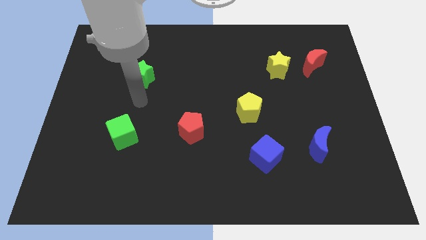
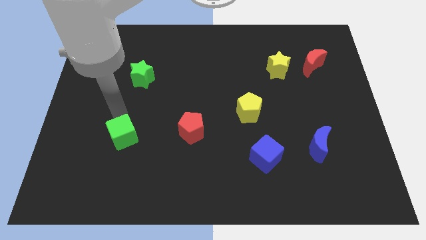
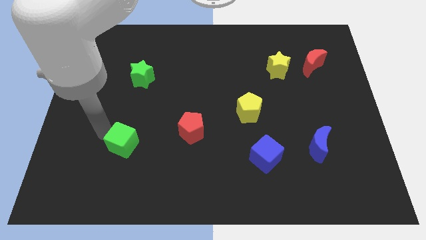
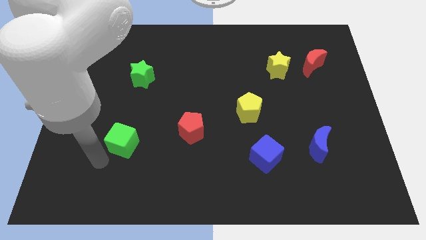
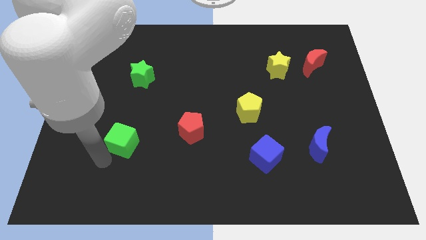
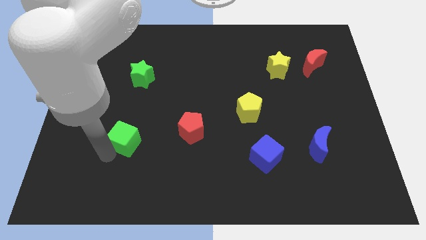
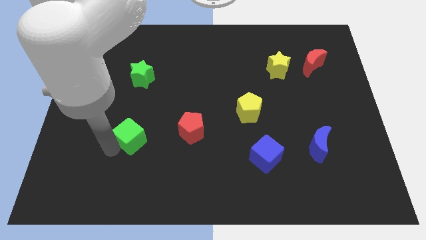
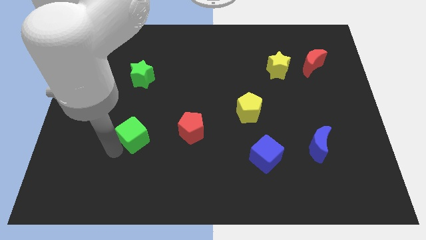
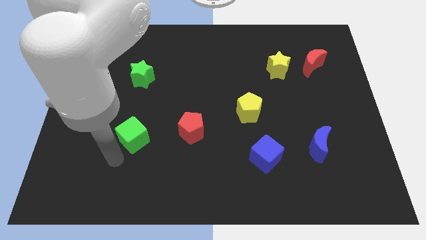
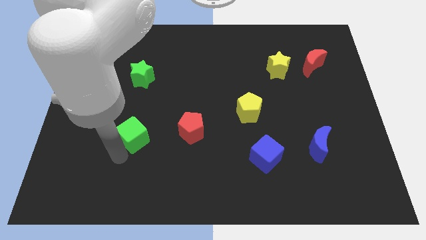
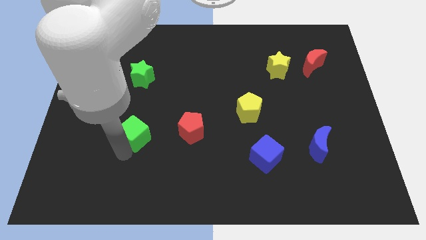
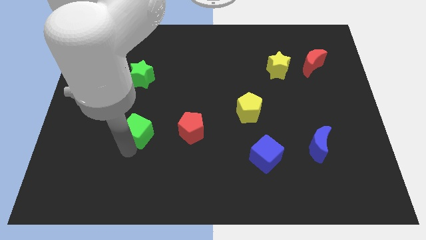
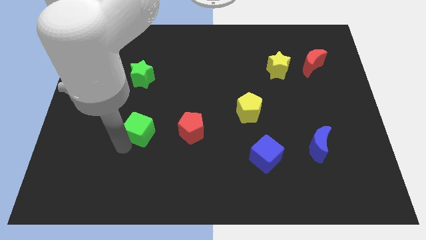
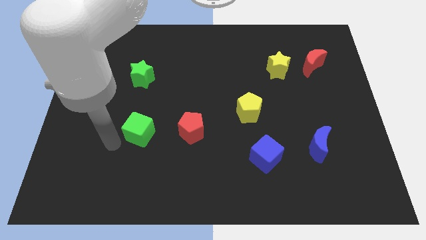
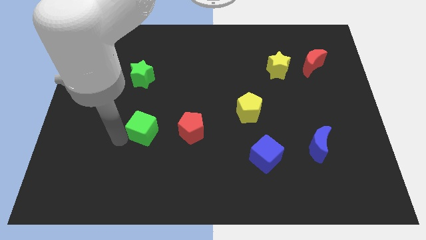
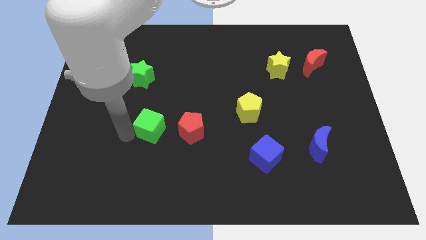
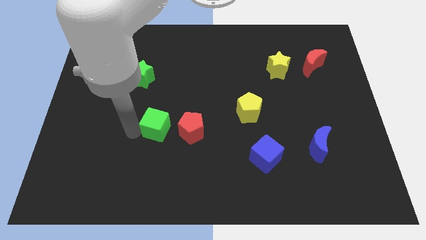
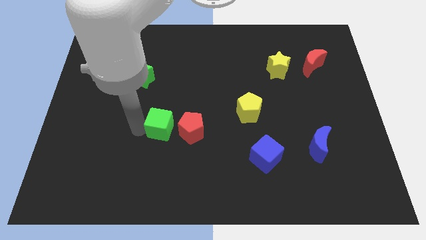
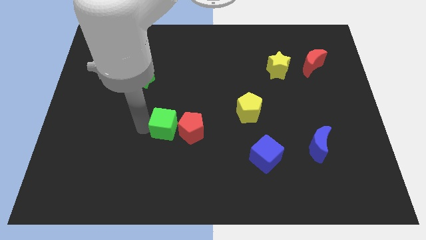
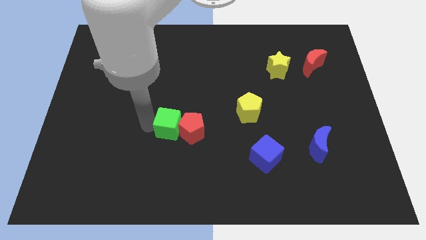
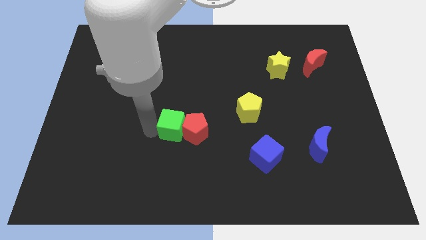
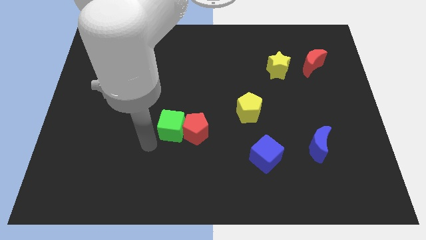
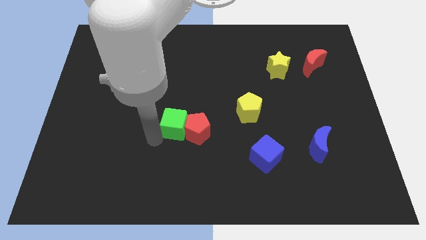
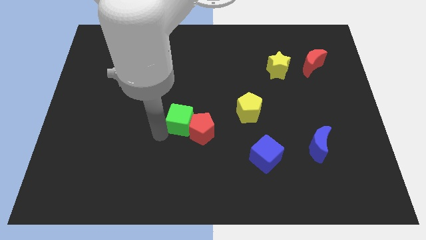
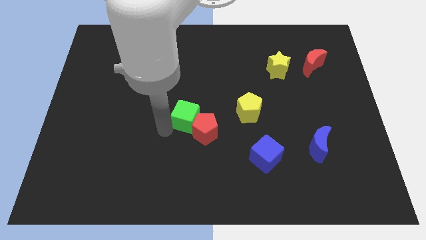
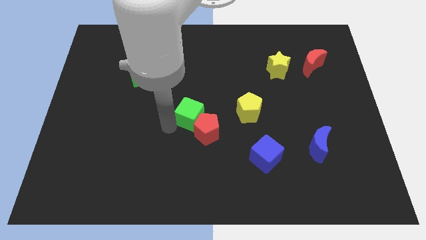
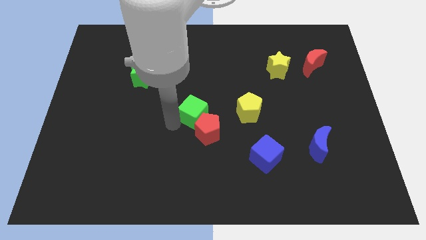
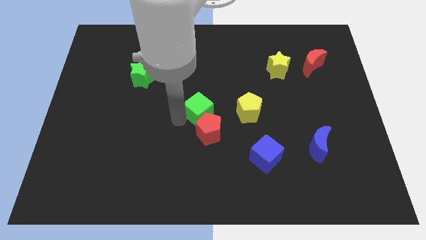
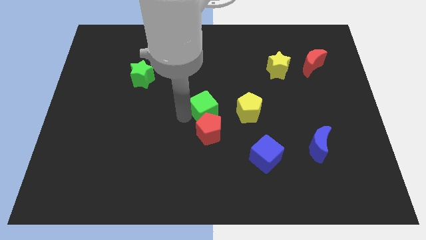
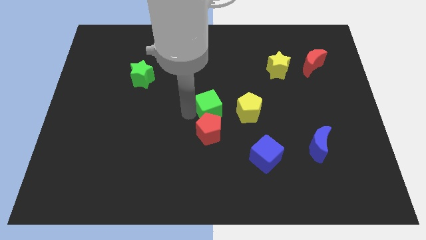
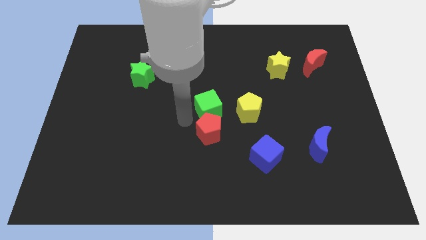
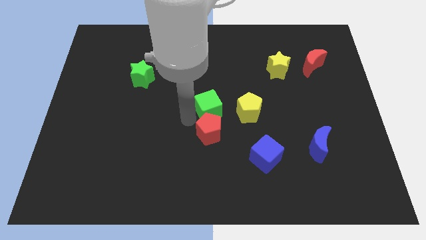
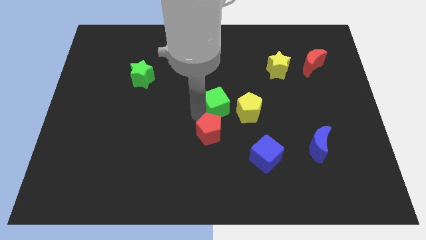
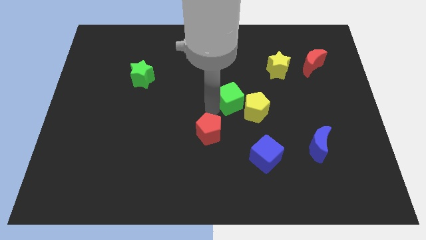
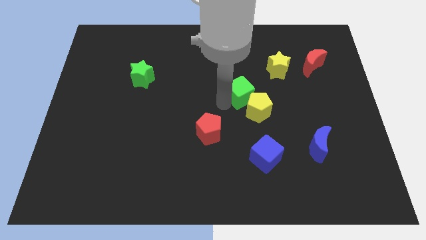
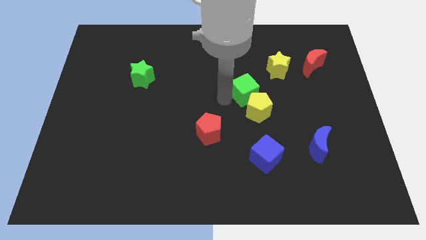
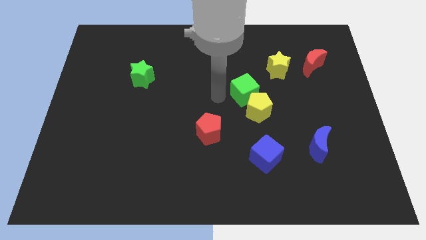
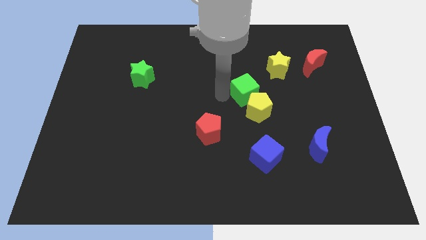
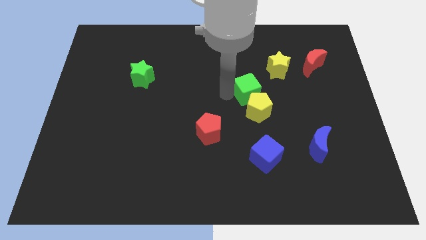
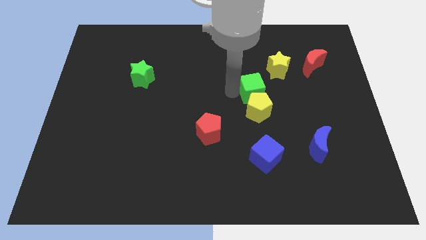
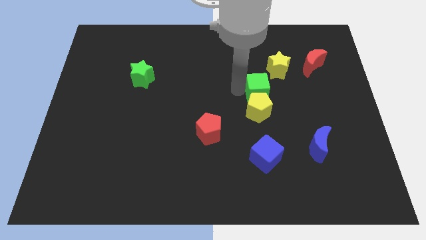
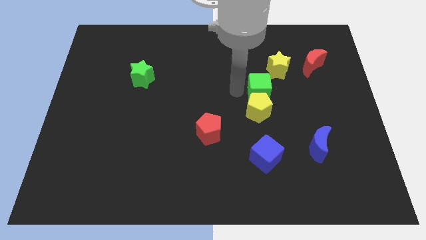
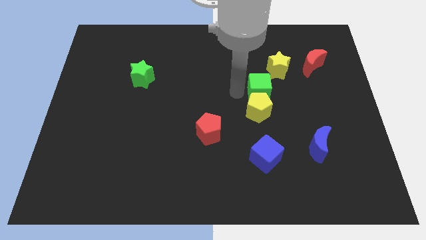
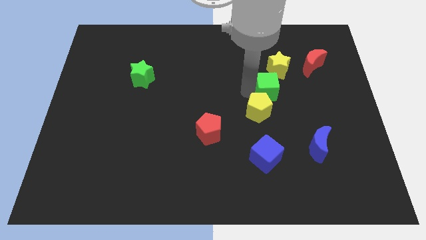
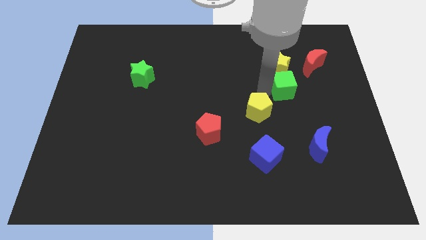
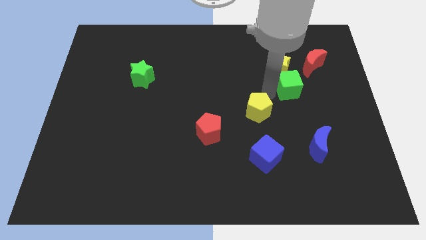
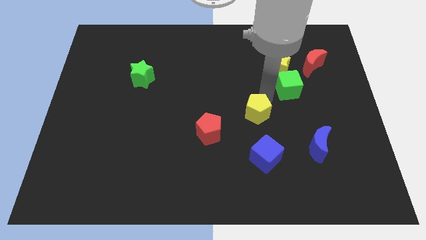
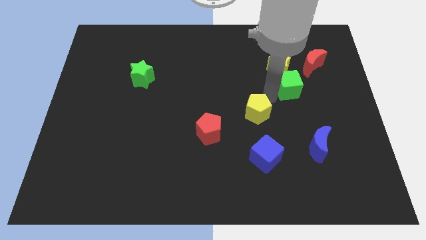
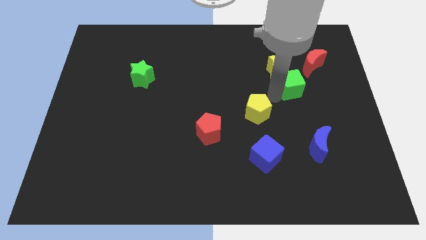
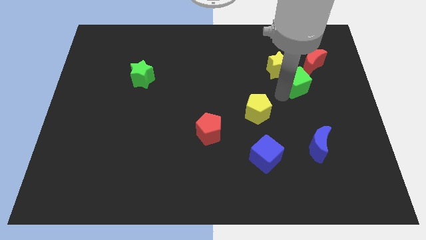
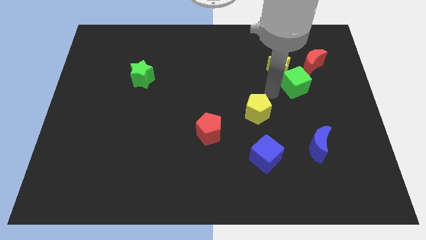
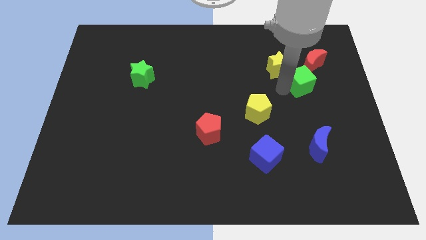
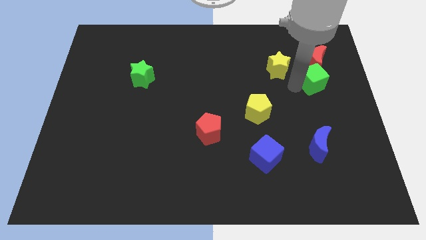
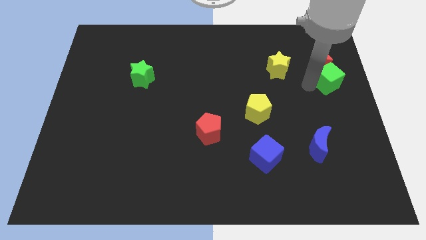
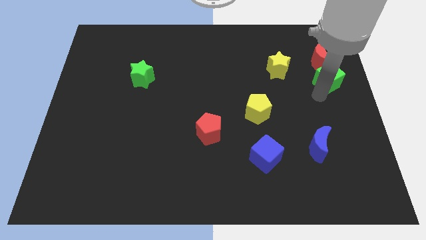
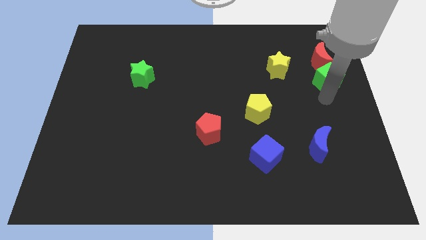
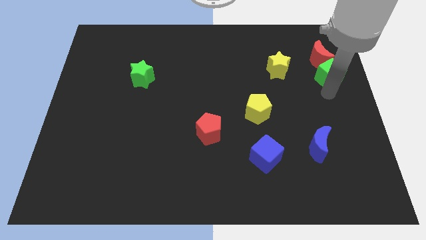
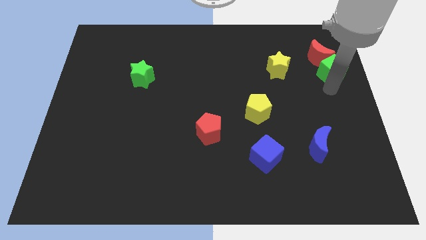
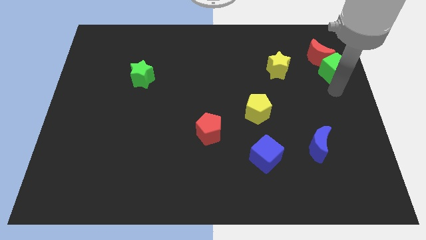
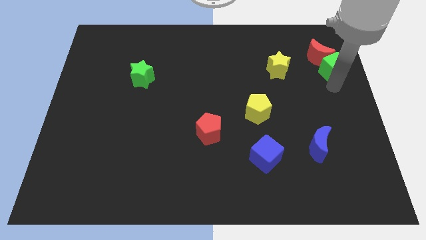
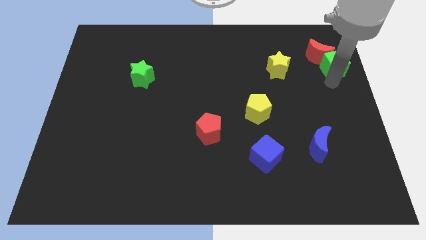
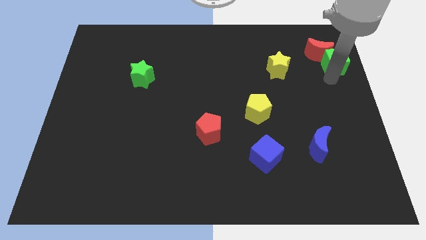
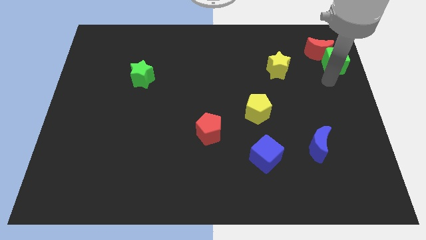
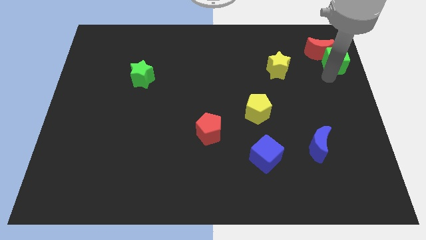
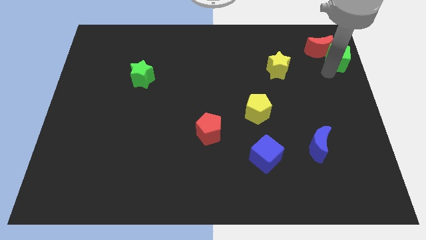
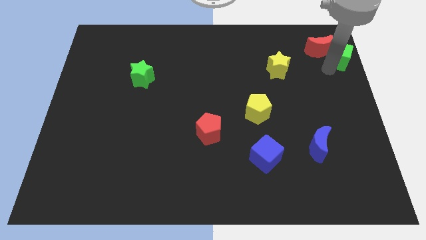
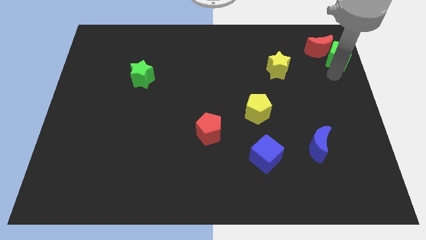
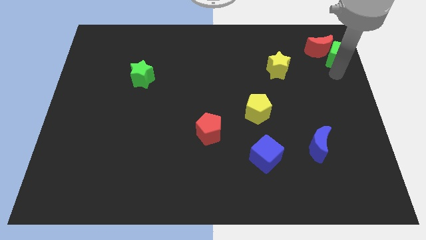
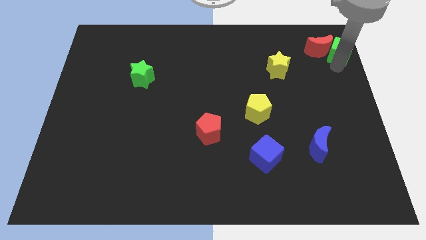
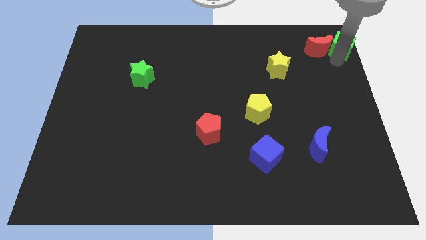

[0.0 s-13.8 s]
push the green cube to the top right of the board
